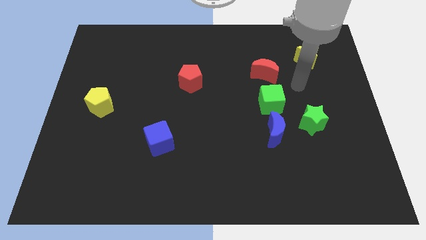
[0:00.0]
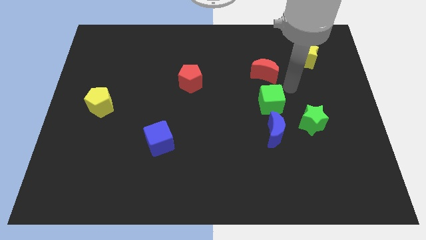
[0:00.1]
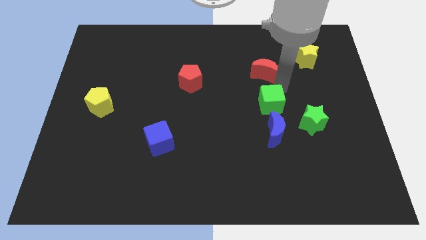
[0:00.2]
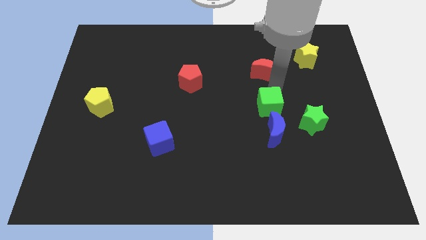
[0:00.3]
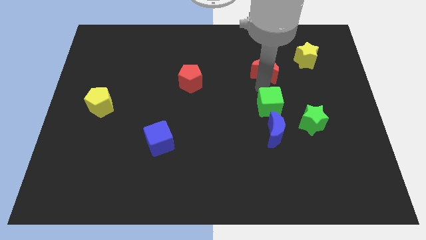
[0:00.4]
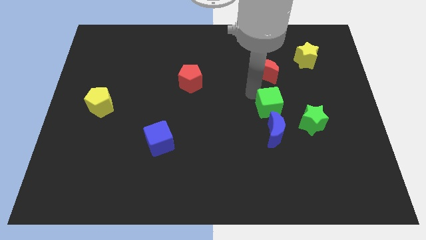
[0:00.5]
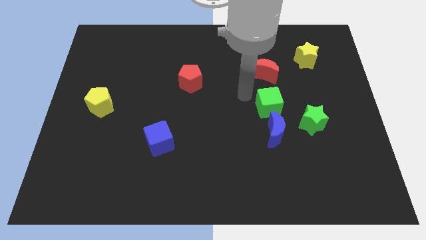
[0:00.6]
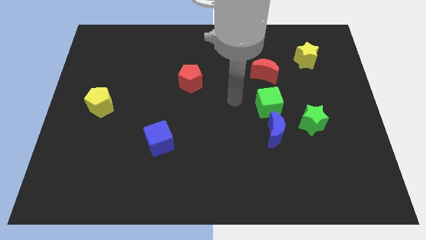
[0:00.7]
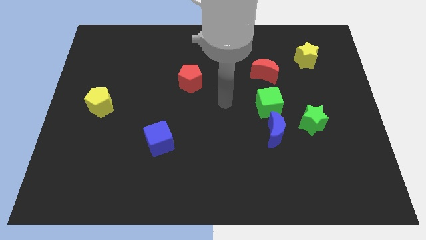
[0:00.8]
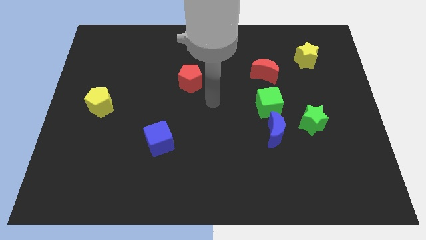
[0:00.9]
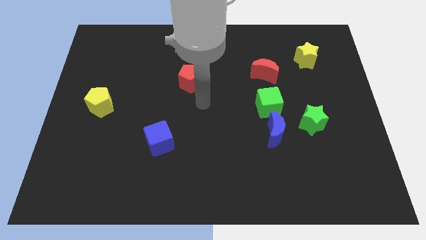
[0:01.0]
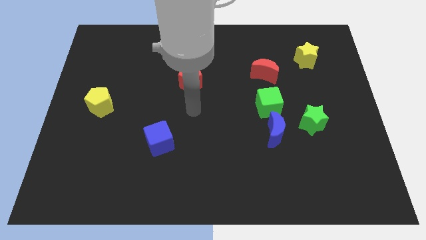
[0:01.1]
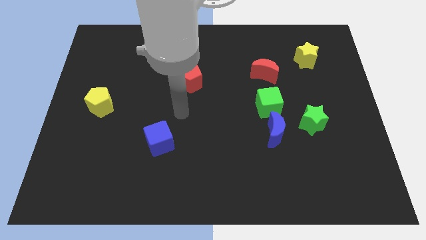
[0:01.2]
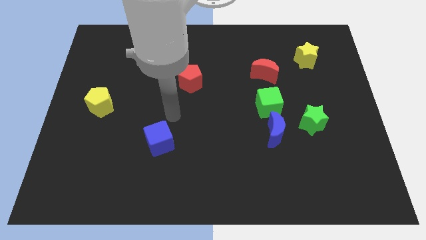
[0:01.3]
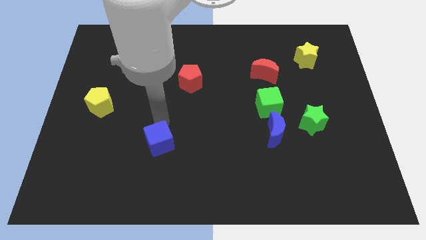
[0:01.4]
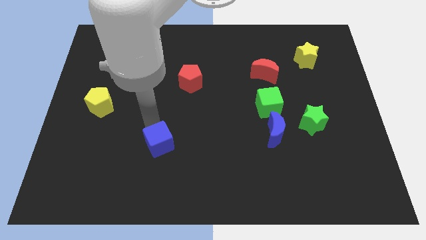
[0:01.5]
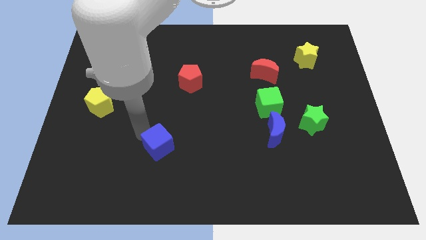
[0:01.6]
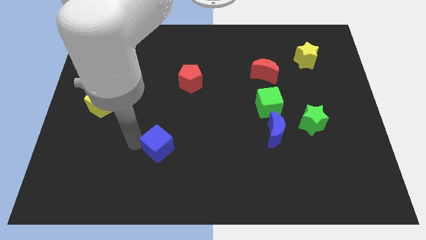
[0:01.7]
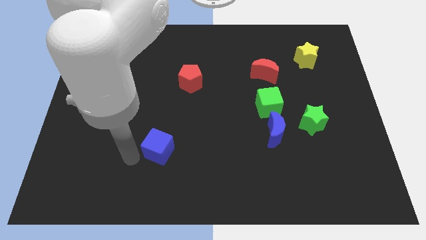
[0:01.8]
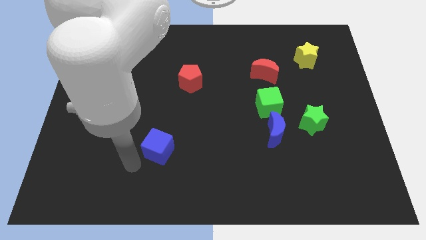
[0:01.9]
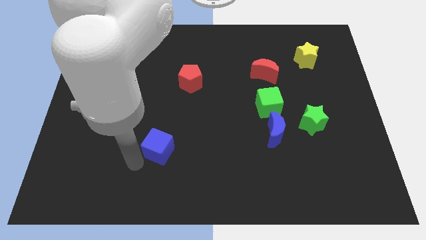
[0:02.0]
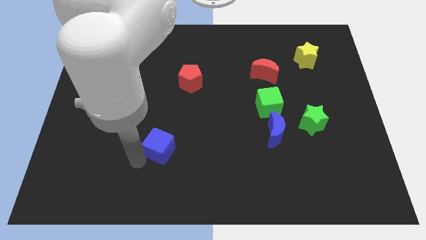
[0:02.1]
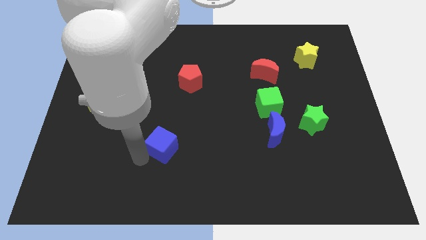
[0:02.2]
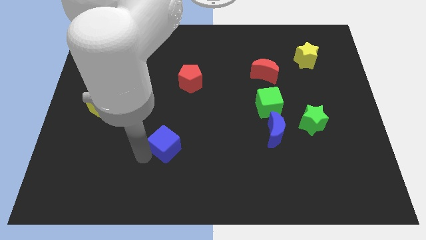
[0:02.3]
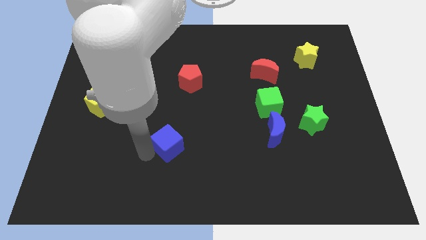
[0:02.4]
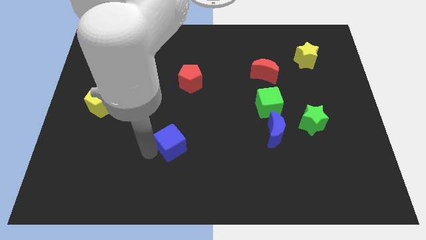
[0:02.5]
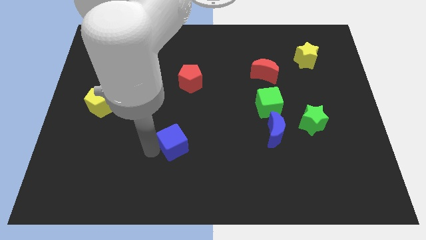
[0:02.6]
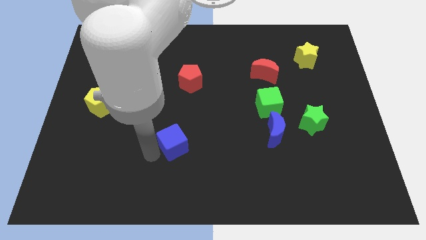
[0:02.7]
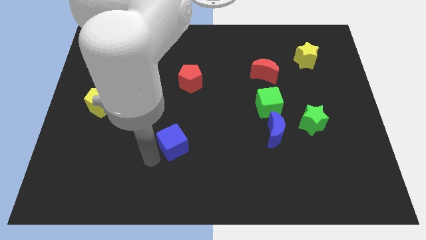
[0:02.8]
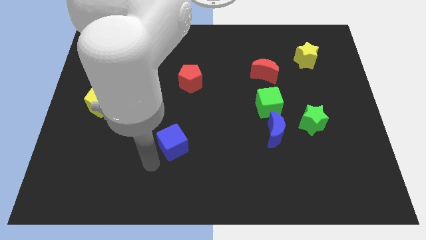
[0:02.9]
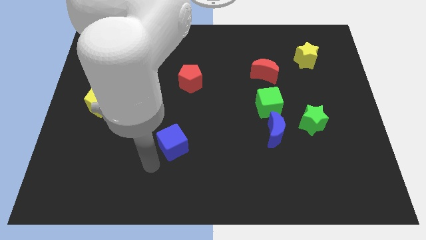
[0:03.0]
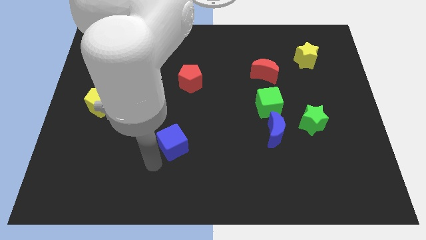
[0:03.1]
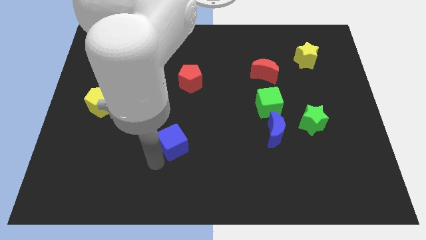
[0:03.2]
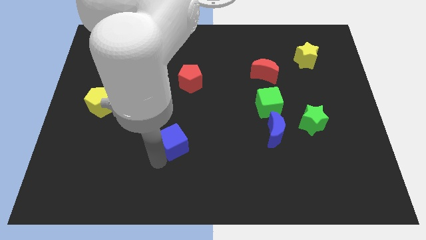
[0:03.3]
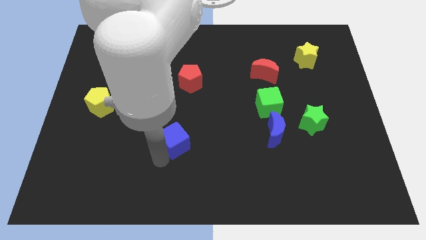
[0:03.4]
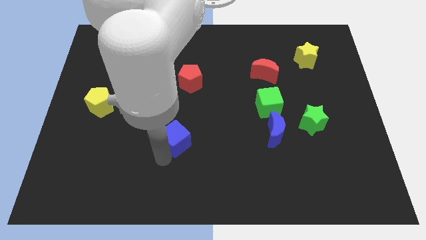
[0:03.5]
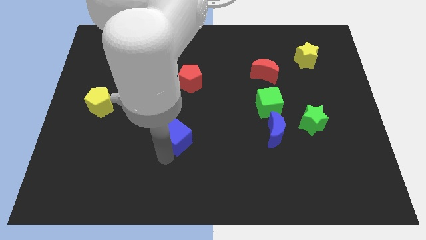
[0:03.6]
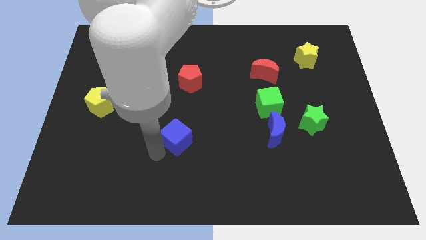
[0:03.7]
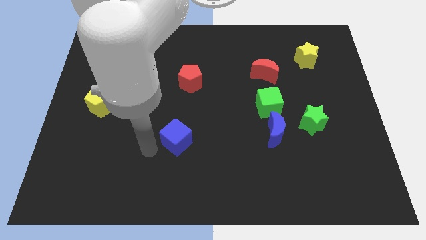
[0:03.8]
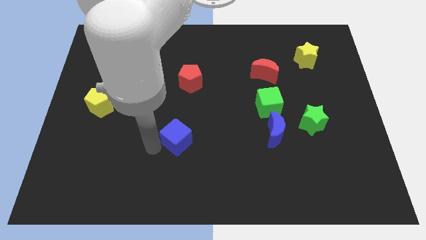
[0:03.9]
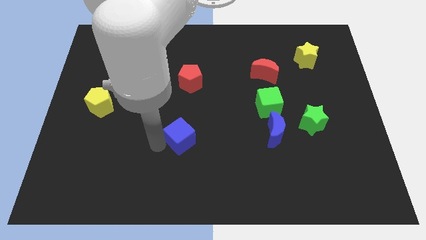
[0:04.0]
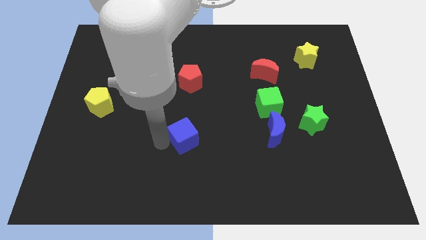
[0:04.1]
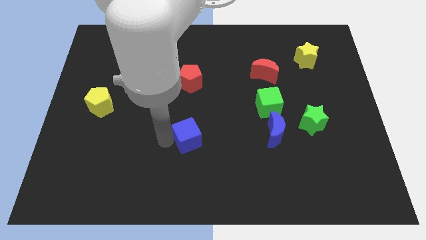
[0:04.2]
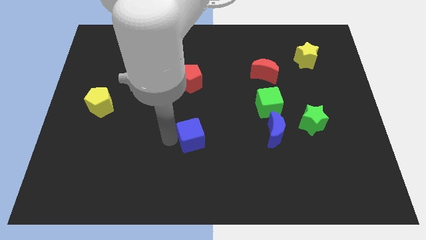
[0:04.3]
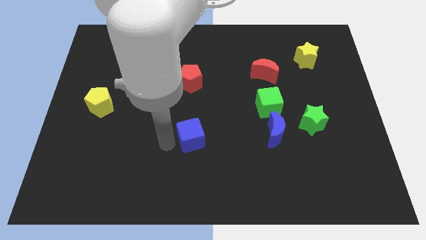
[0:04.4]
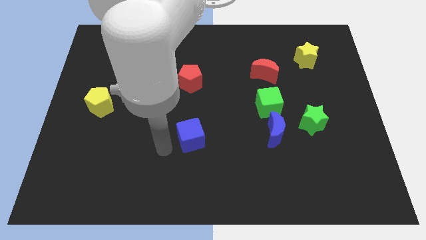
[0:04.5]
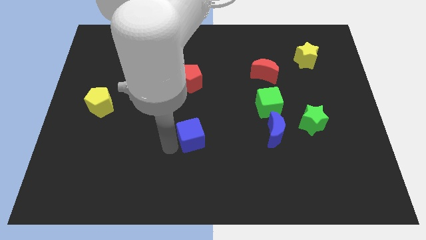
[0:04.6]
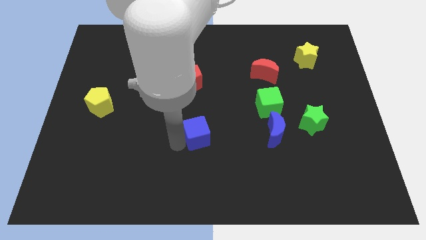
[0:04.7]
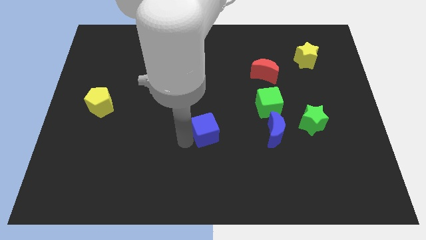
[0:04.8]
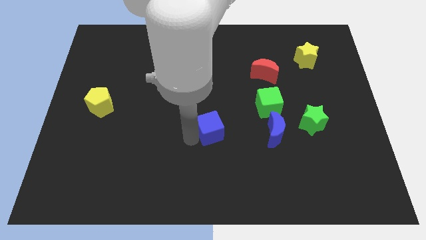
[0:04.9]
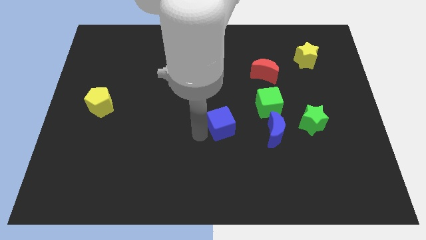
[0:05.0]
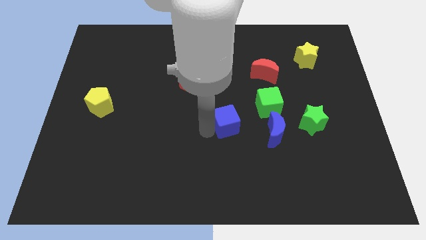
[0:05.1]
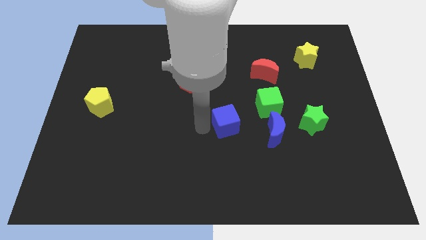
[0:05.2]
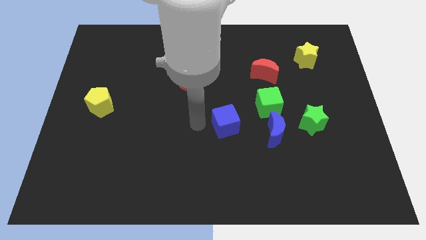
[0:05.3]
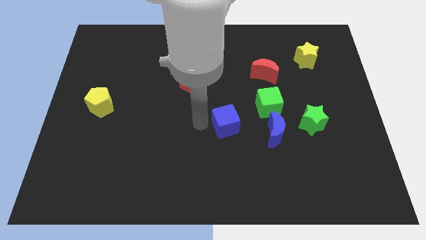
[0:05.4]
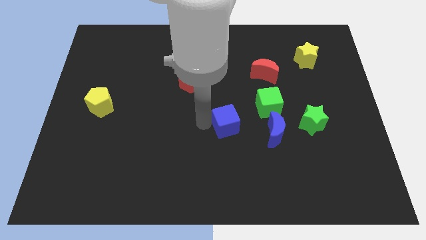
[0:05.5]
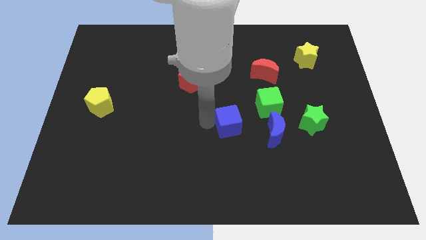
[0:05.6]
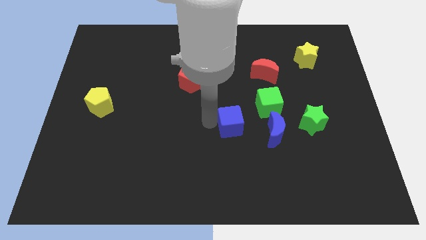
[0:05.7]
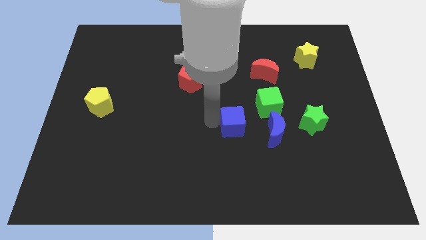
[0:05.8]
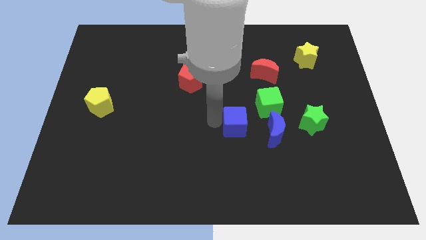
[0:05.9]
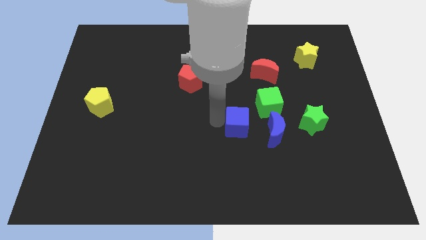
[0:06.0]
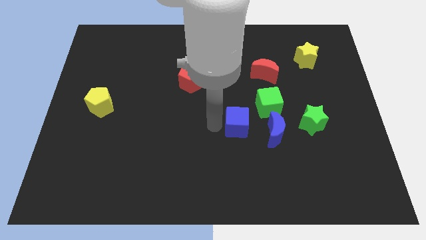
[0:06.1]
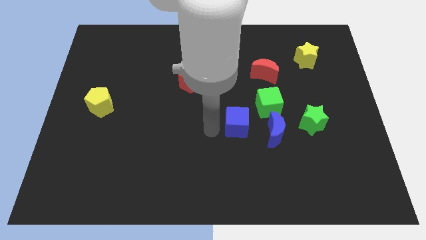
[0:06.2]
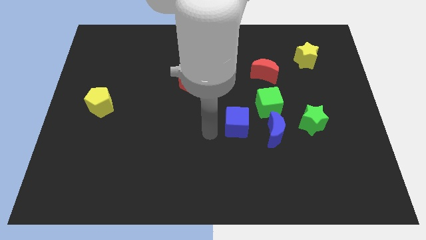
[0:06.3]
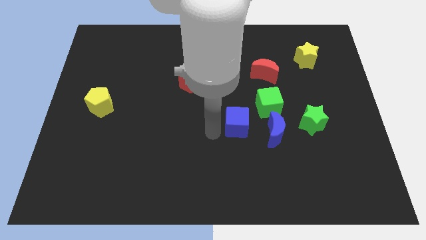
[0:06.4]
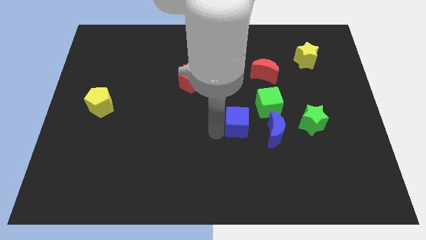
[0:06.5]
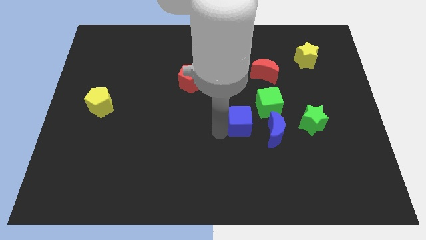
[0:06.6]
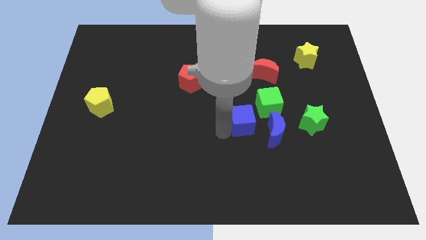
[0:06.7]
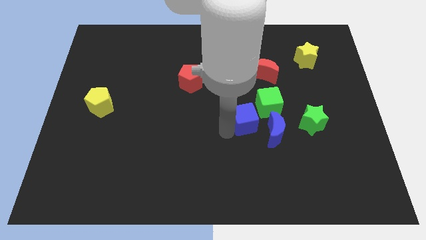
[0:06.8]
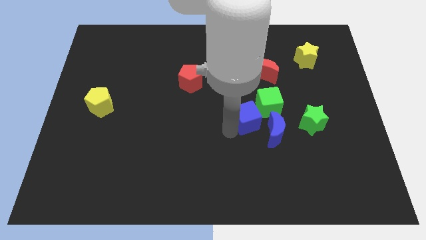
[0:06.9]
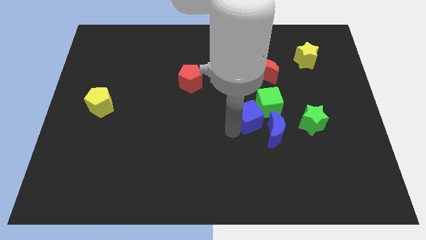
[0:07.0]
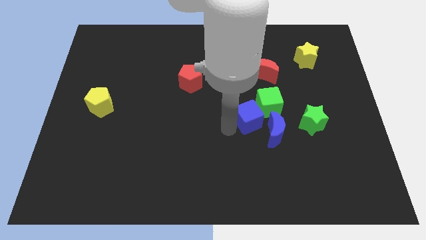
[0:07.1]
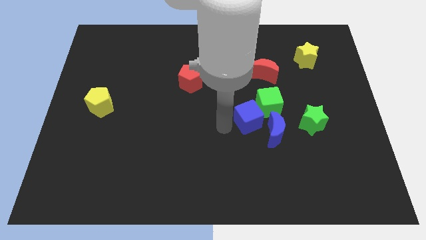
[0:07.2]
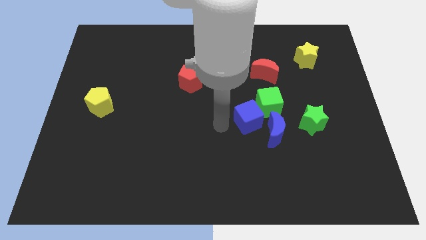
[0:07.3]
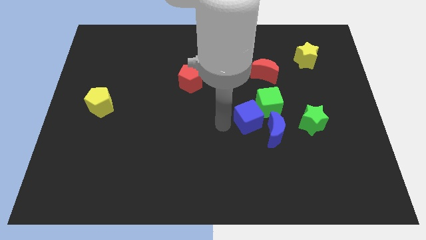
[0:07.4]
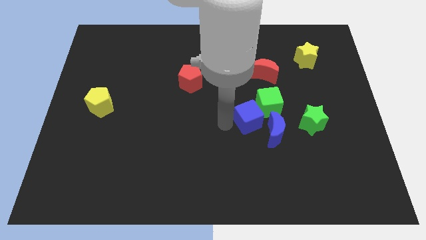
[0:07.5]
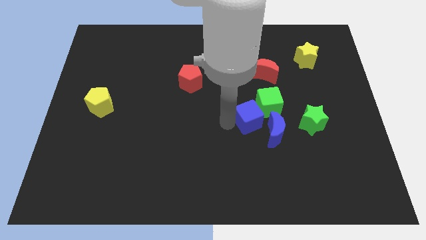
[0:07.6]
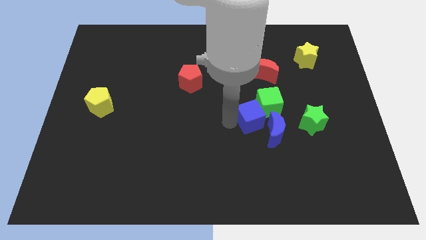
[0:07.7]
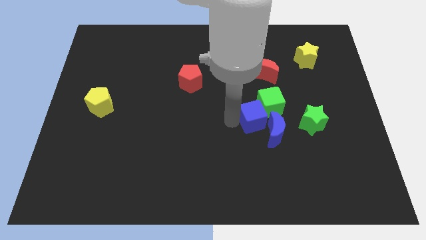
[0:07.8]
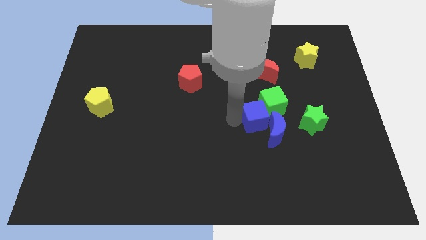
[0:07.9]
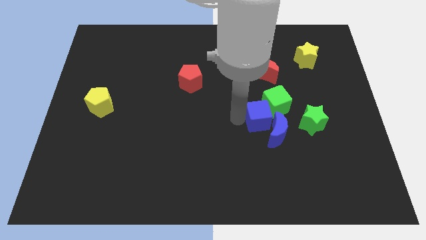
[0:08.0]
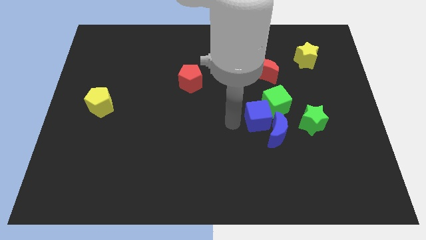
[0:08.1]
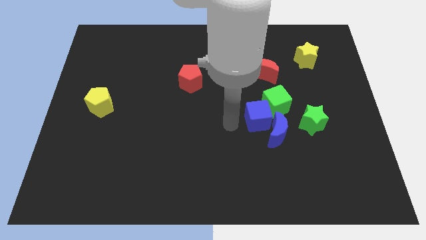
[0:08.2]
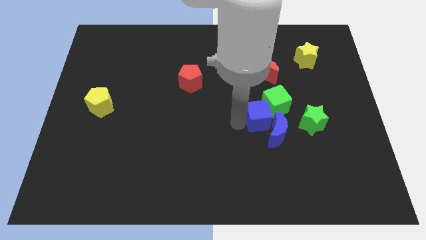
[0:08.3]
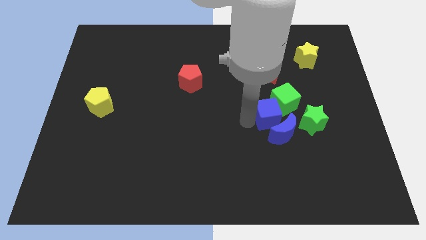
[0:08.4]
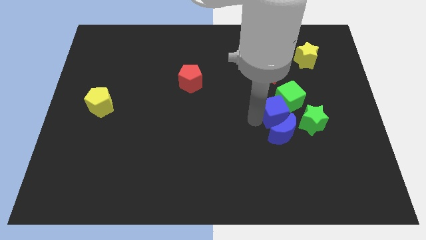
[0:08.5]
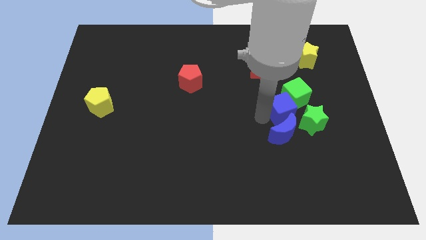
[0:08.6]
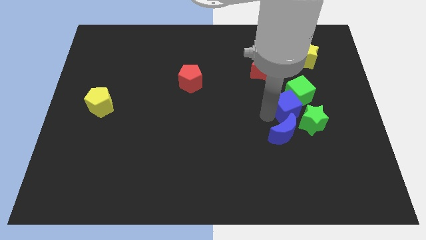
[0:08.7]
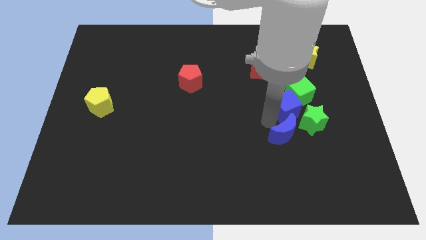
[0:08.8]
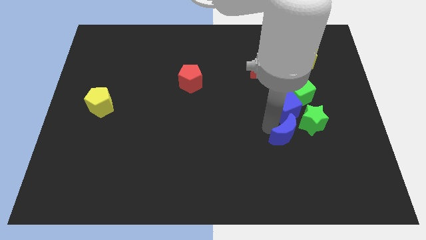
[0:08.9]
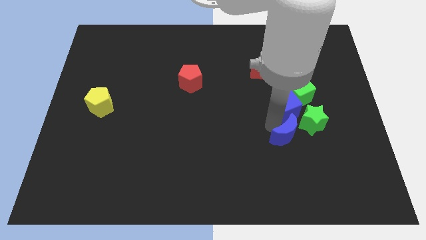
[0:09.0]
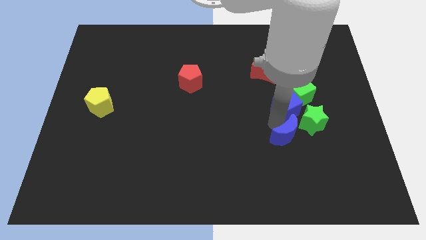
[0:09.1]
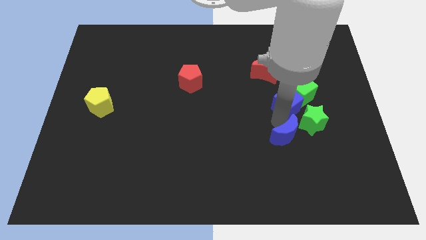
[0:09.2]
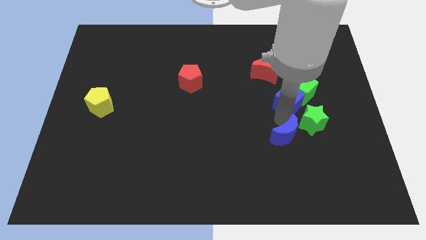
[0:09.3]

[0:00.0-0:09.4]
slide the blue cube to the top of the green star
